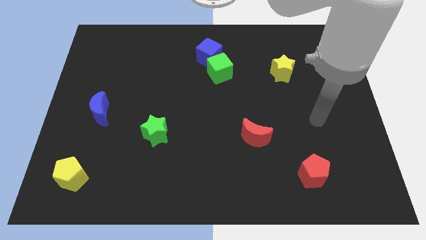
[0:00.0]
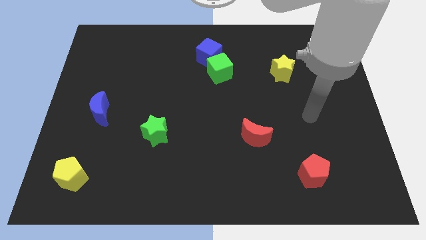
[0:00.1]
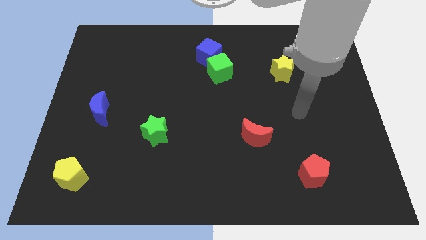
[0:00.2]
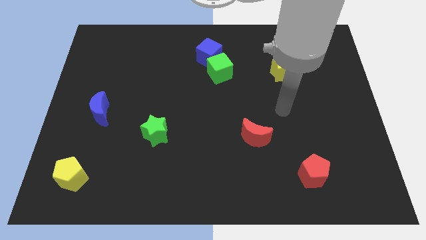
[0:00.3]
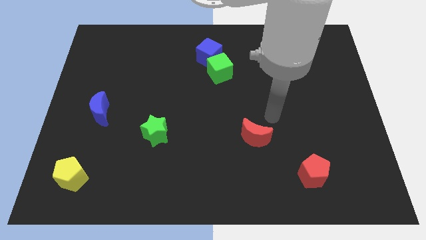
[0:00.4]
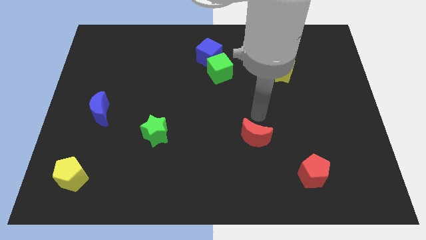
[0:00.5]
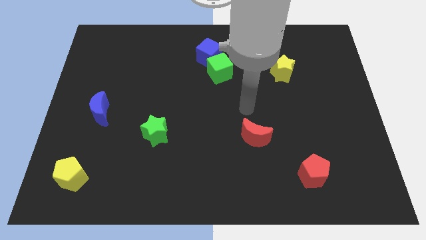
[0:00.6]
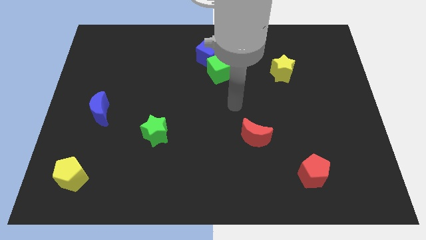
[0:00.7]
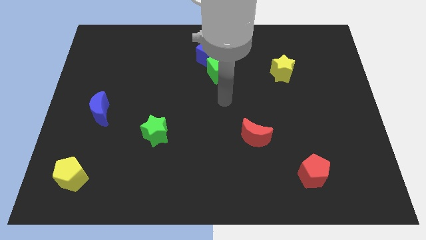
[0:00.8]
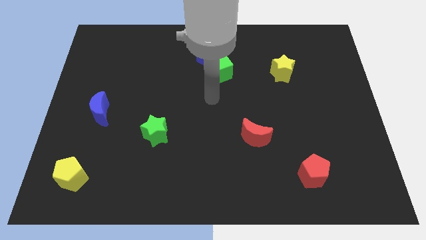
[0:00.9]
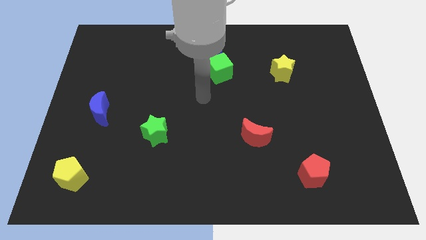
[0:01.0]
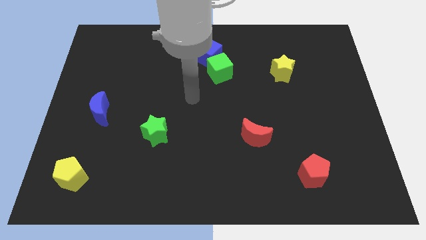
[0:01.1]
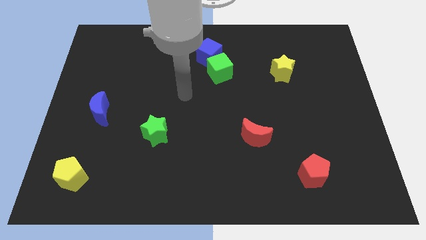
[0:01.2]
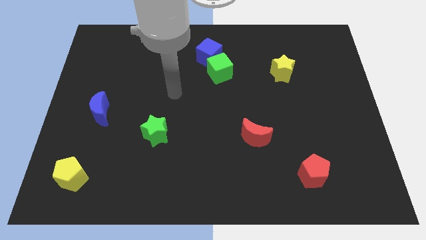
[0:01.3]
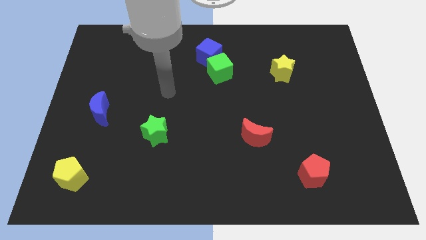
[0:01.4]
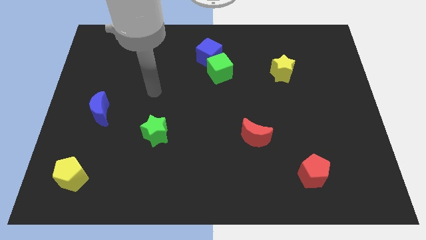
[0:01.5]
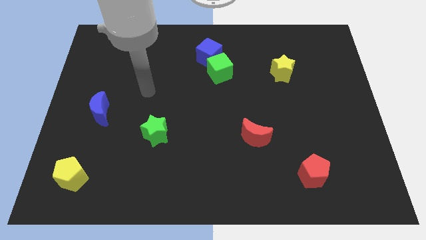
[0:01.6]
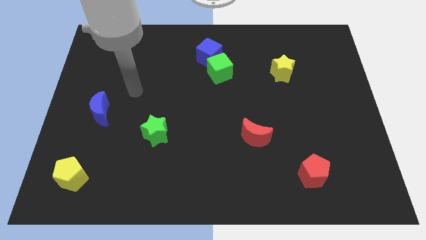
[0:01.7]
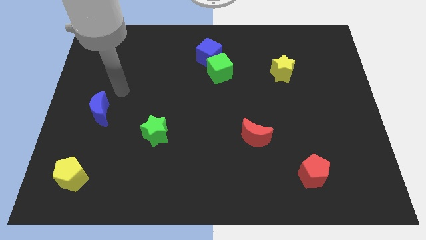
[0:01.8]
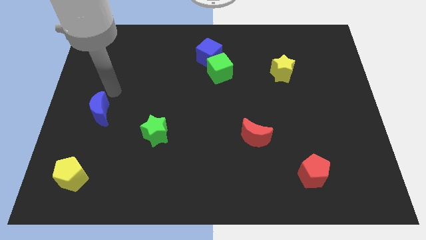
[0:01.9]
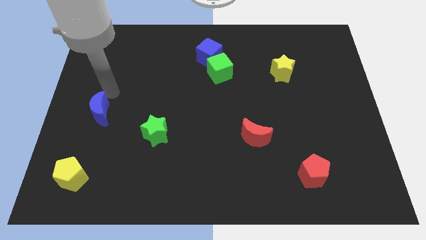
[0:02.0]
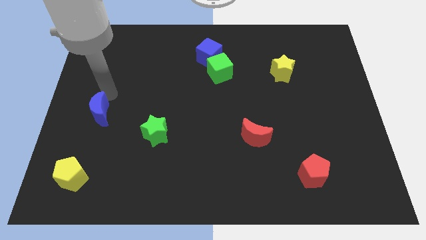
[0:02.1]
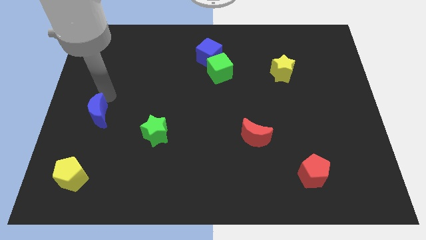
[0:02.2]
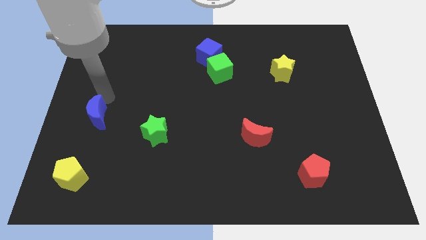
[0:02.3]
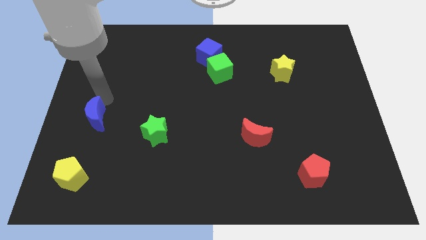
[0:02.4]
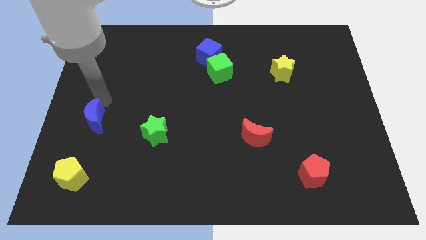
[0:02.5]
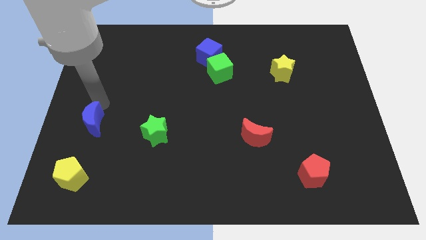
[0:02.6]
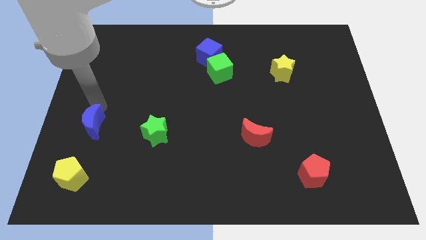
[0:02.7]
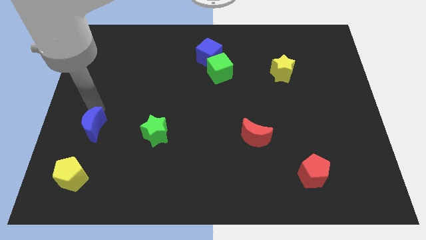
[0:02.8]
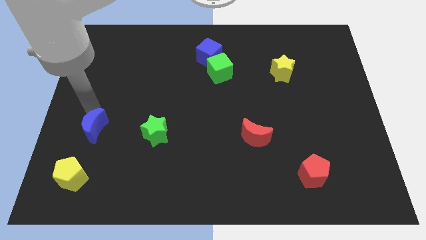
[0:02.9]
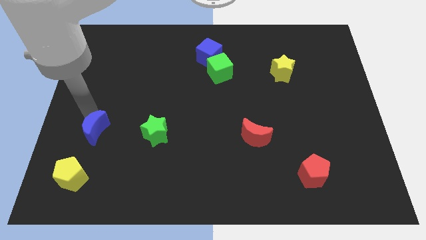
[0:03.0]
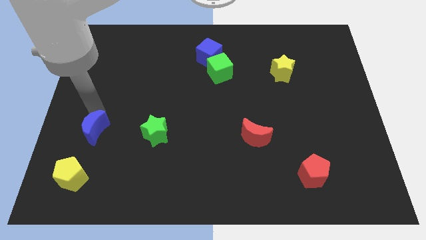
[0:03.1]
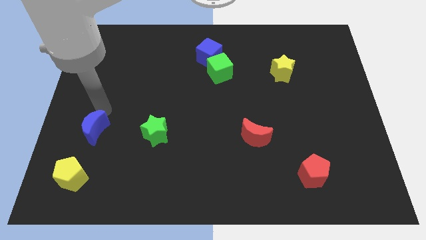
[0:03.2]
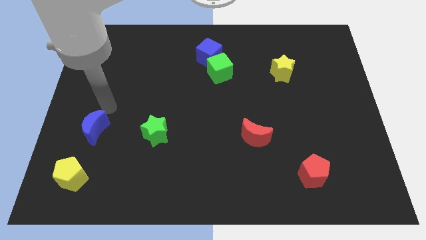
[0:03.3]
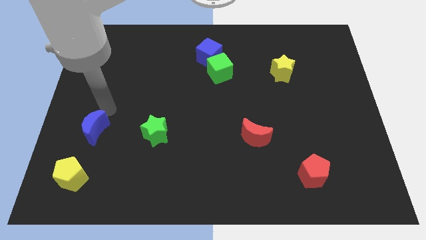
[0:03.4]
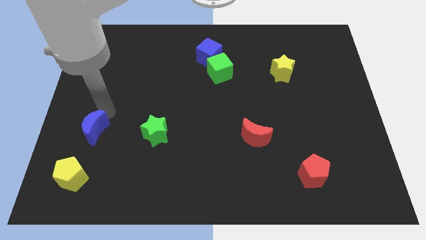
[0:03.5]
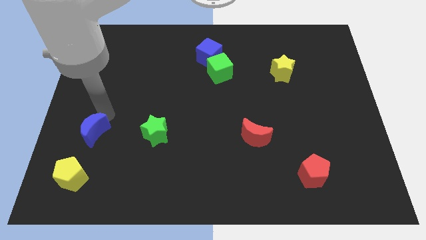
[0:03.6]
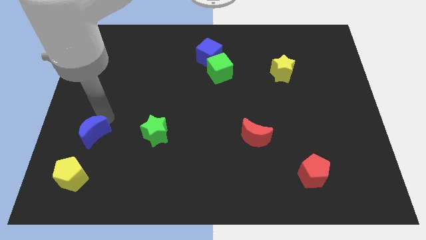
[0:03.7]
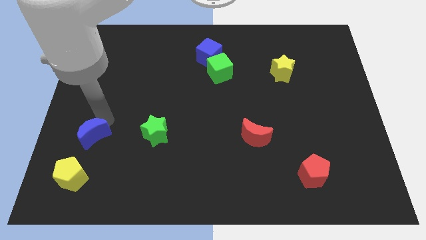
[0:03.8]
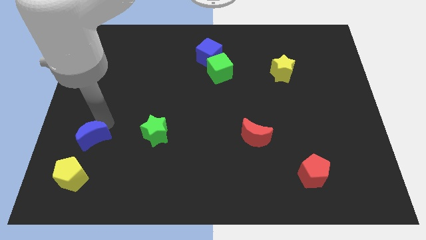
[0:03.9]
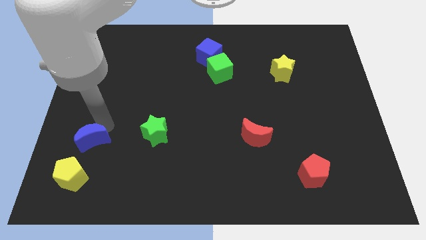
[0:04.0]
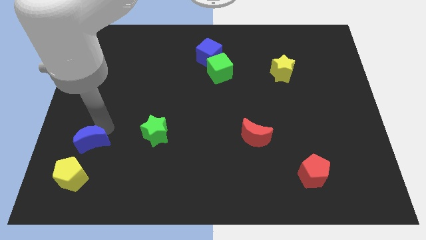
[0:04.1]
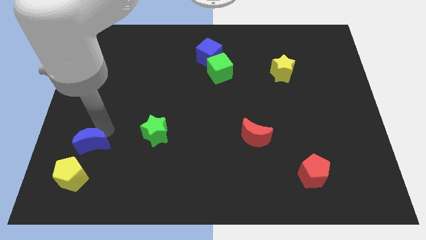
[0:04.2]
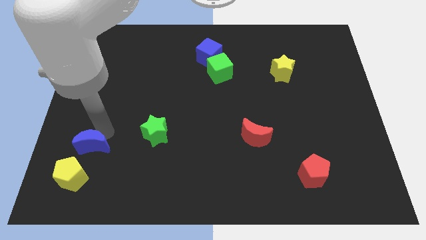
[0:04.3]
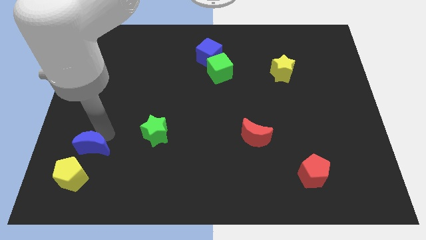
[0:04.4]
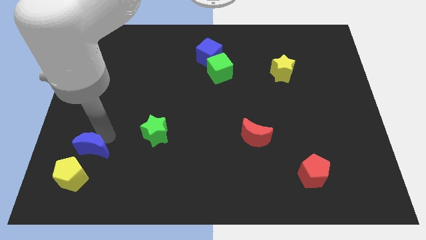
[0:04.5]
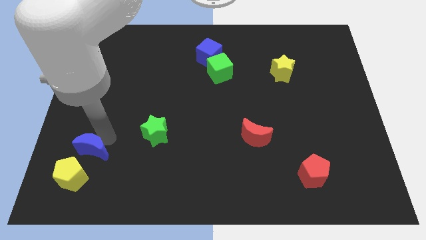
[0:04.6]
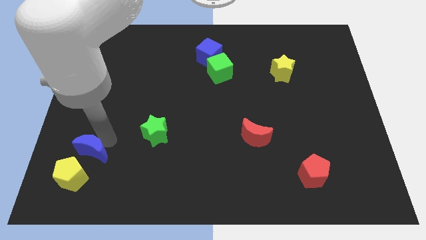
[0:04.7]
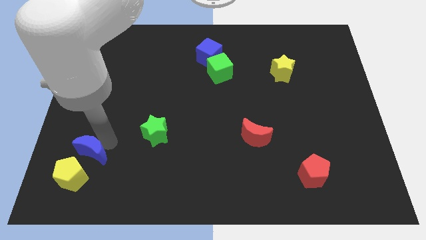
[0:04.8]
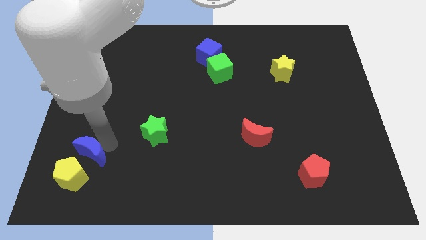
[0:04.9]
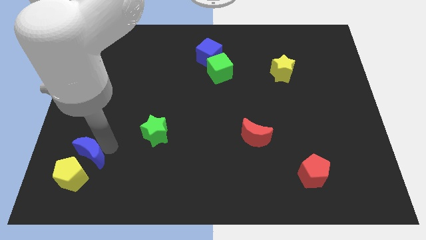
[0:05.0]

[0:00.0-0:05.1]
slide the blue moon to the yellow pentagon

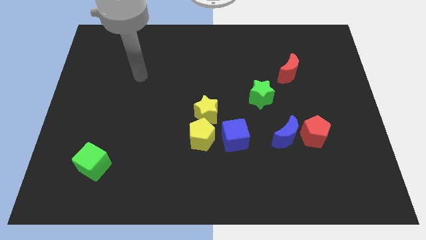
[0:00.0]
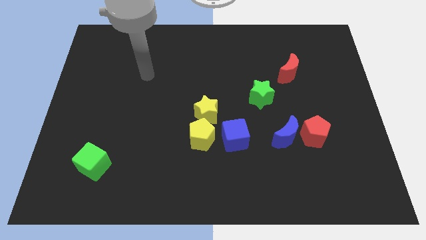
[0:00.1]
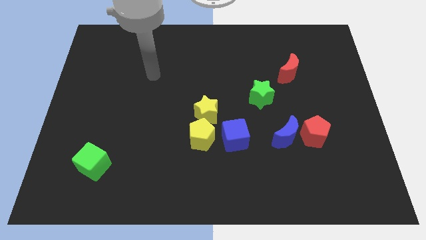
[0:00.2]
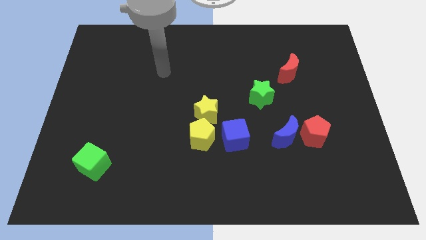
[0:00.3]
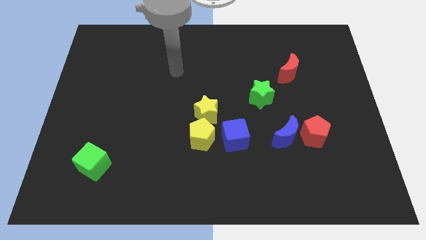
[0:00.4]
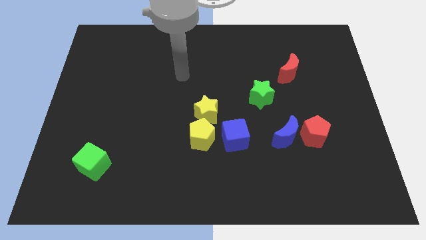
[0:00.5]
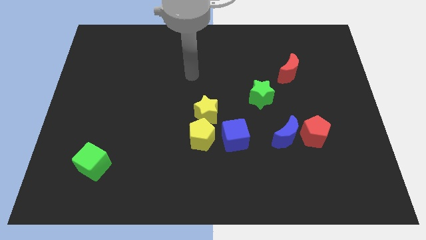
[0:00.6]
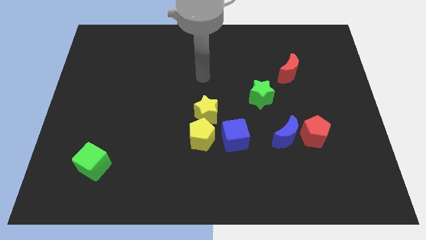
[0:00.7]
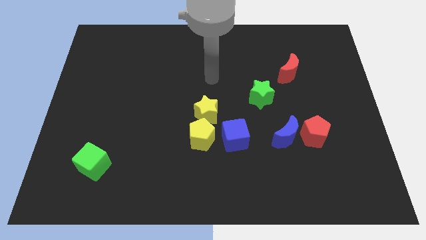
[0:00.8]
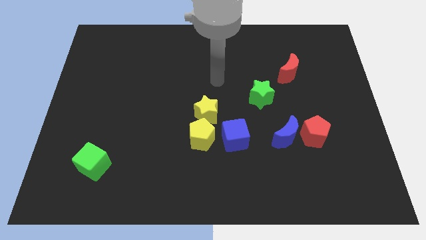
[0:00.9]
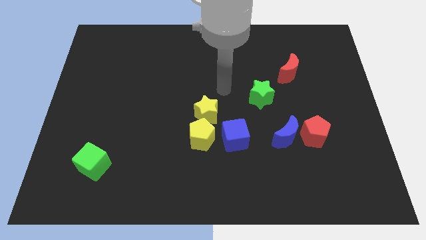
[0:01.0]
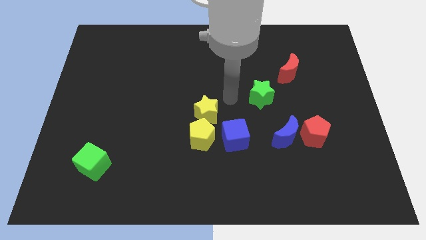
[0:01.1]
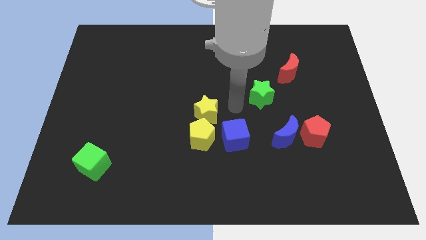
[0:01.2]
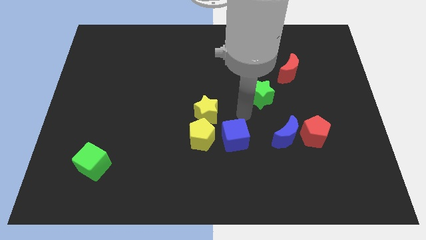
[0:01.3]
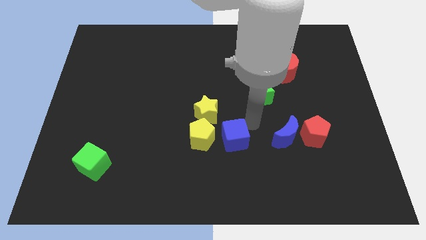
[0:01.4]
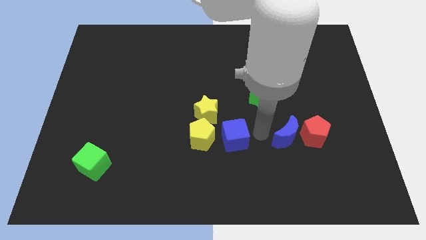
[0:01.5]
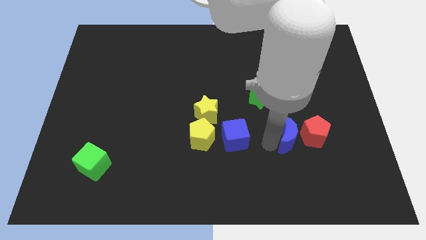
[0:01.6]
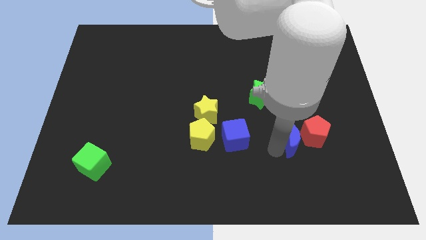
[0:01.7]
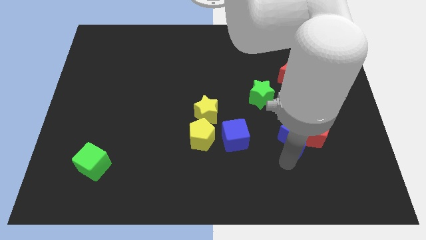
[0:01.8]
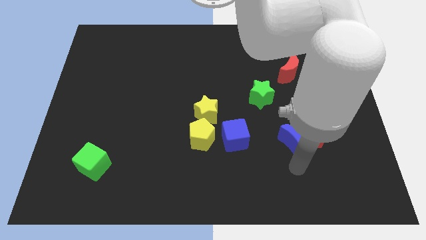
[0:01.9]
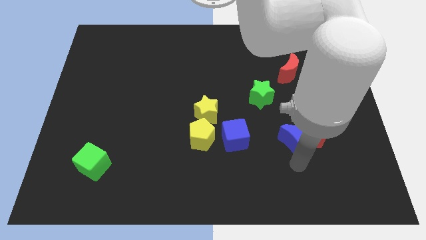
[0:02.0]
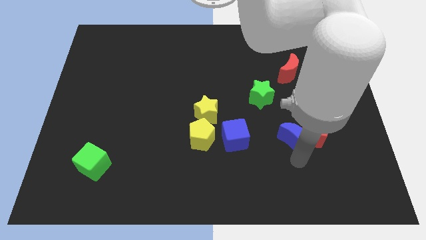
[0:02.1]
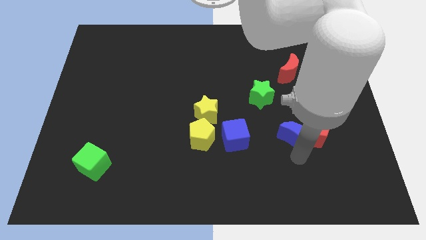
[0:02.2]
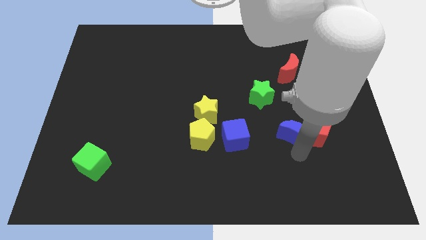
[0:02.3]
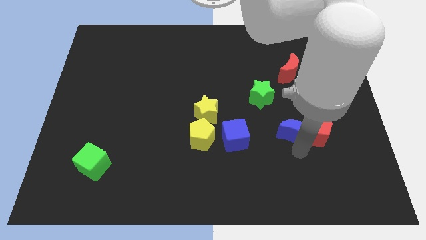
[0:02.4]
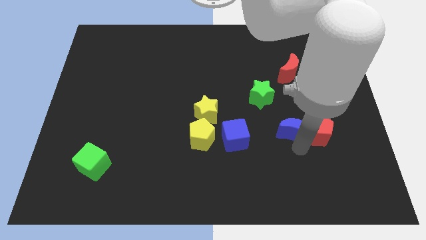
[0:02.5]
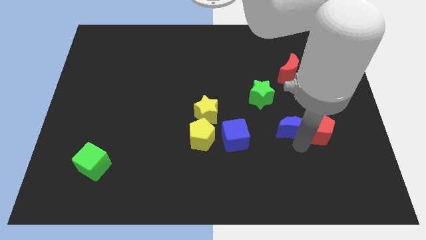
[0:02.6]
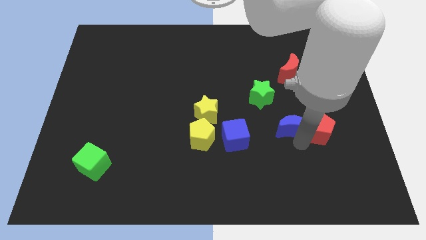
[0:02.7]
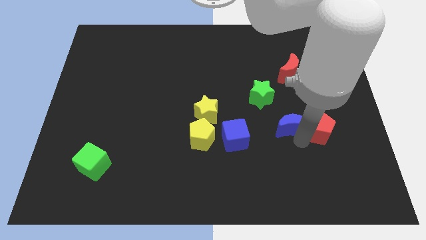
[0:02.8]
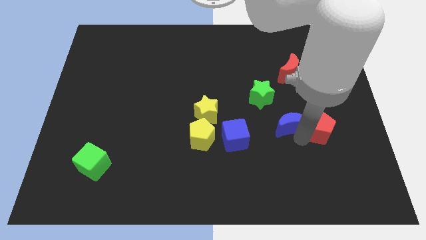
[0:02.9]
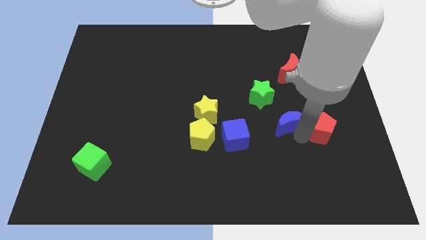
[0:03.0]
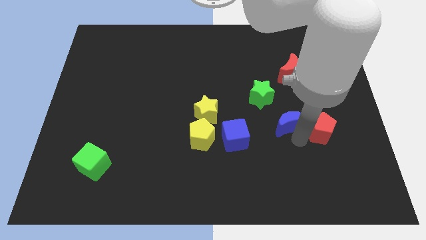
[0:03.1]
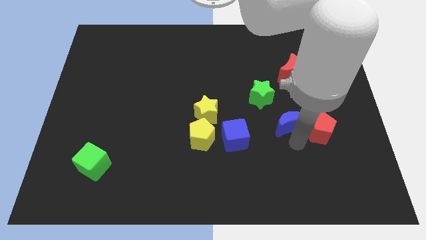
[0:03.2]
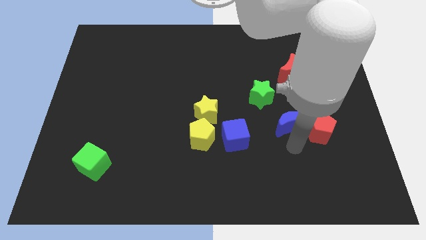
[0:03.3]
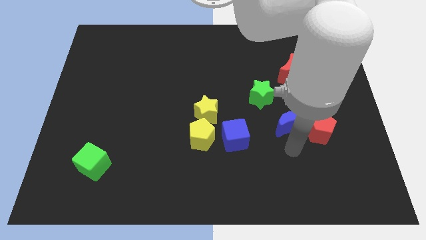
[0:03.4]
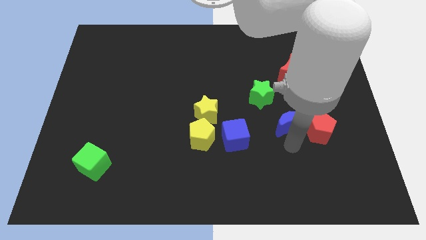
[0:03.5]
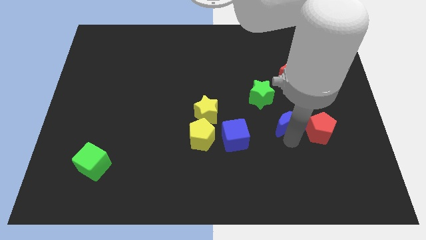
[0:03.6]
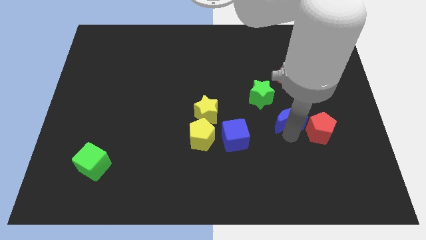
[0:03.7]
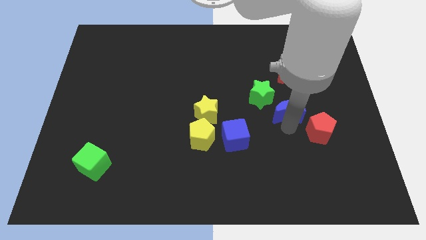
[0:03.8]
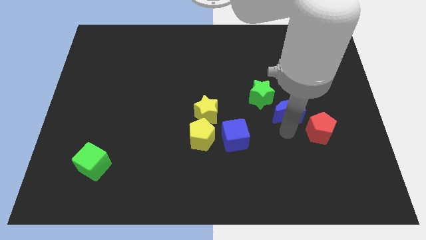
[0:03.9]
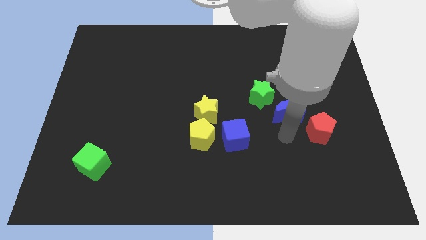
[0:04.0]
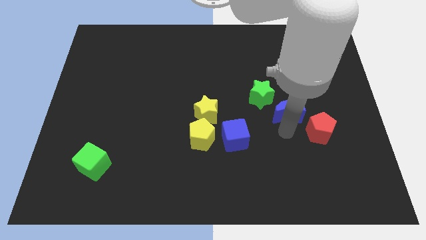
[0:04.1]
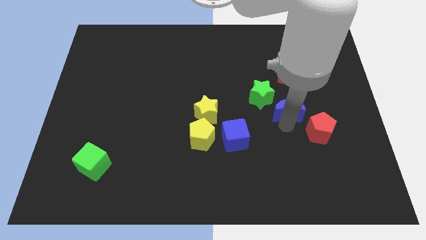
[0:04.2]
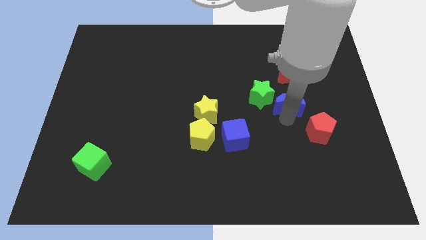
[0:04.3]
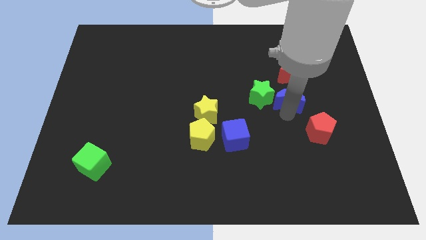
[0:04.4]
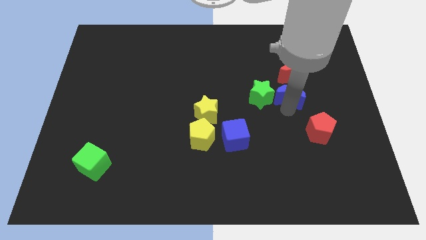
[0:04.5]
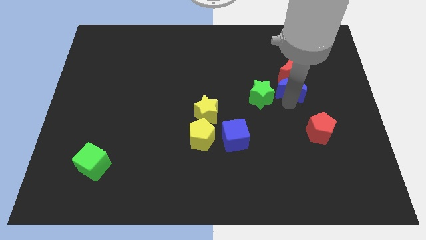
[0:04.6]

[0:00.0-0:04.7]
put the blue moon next to the red moon
